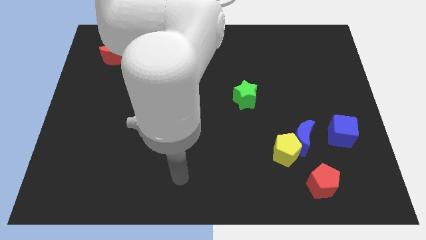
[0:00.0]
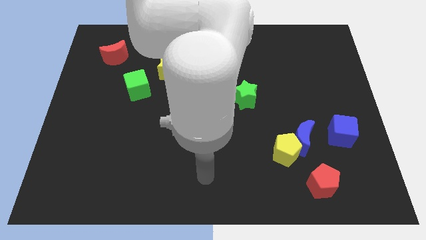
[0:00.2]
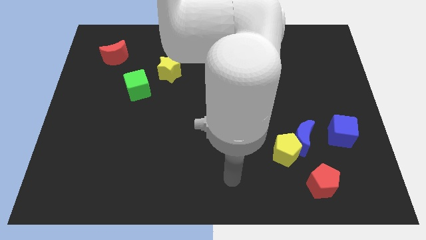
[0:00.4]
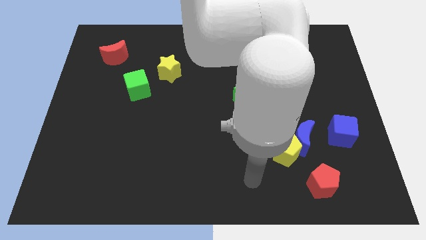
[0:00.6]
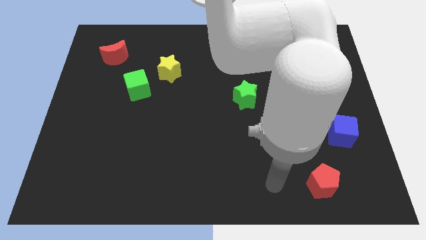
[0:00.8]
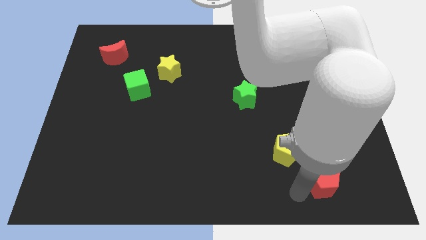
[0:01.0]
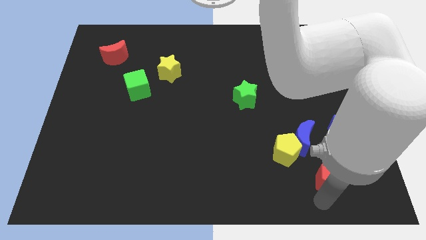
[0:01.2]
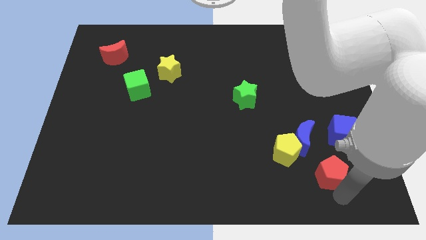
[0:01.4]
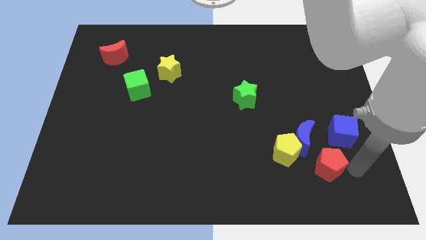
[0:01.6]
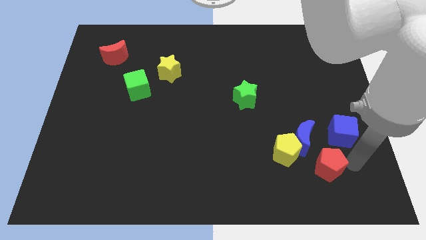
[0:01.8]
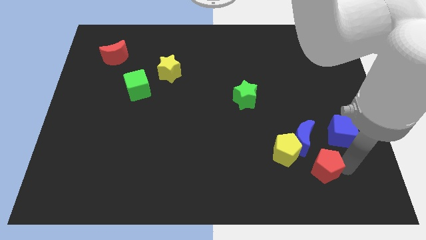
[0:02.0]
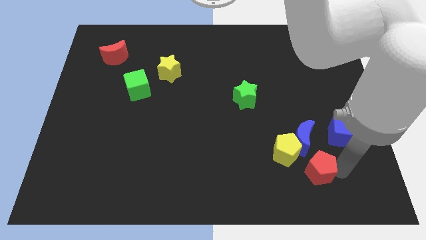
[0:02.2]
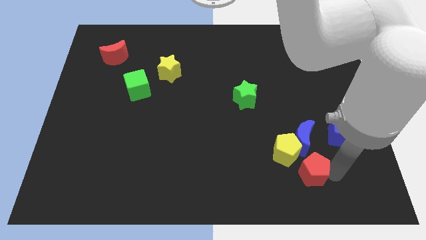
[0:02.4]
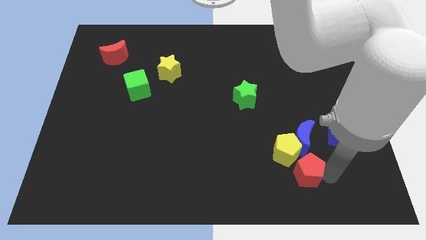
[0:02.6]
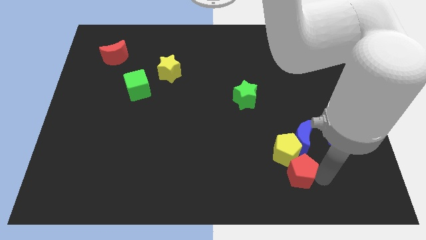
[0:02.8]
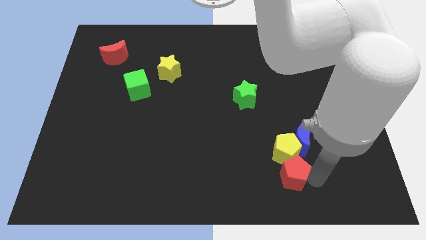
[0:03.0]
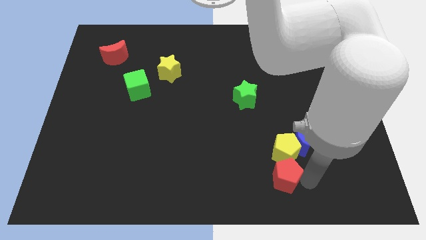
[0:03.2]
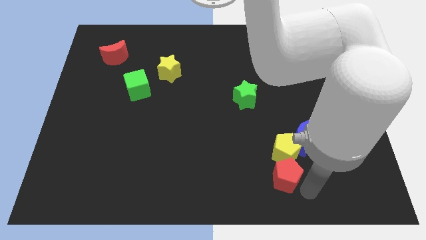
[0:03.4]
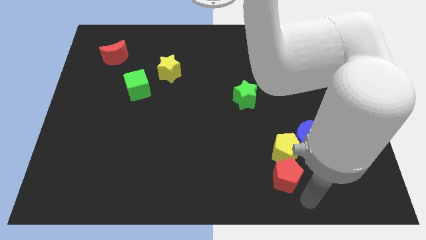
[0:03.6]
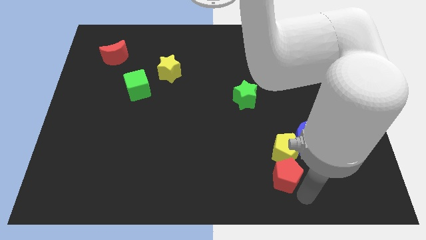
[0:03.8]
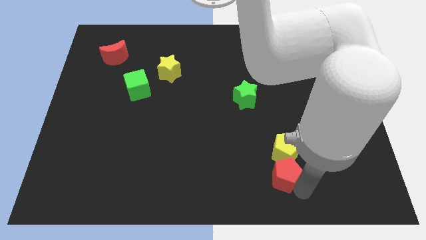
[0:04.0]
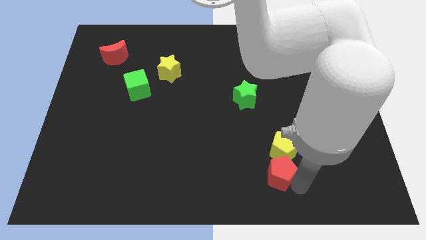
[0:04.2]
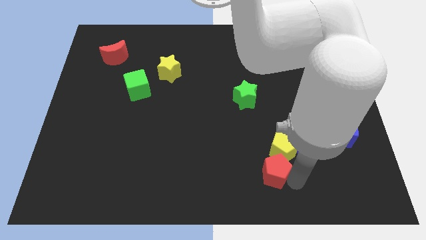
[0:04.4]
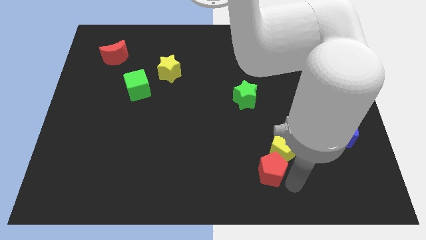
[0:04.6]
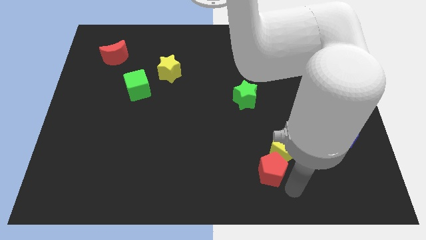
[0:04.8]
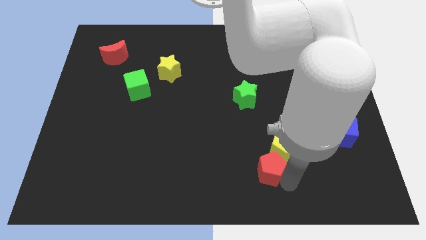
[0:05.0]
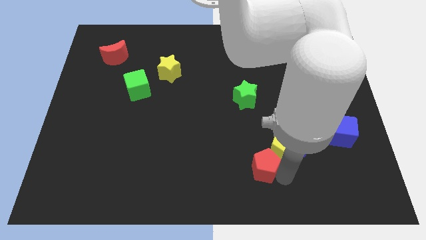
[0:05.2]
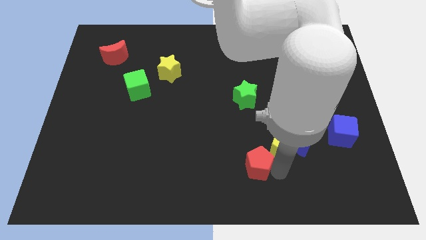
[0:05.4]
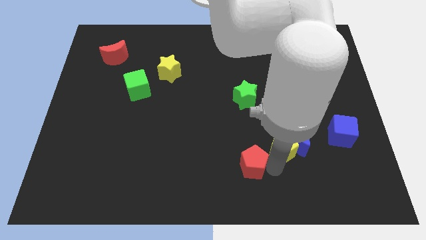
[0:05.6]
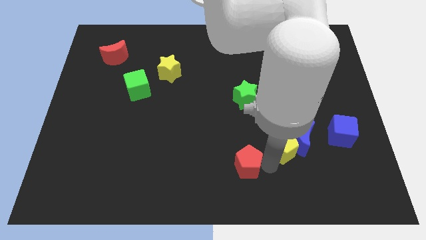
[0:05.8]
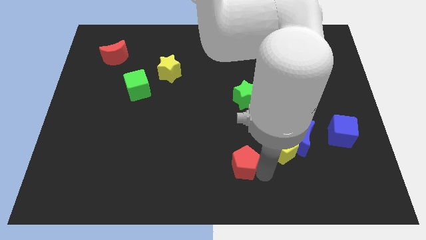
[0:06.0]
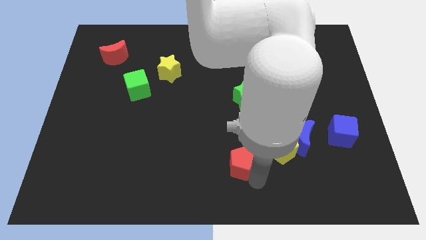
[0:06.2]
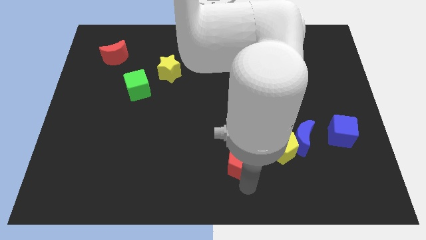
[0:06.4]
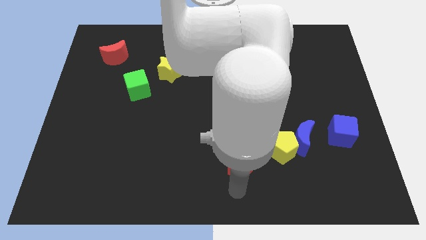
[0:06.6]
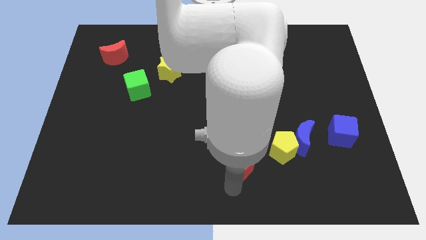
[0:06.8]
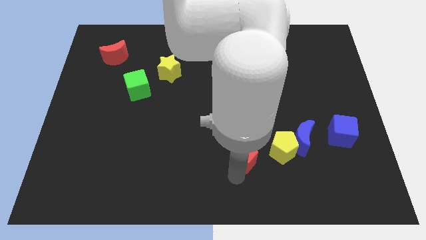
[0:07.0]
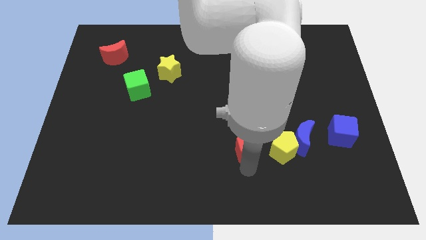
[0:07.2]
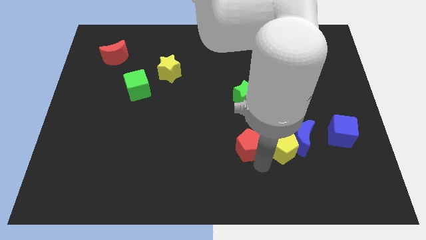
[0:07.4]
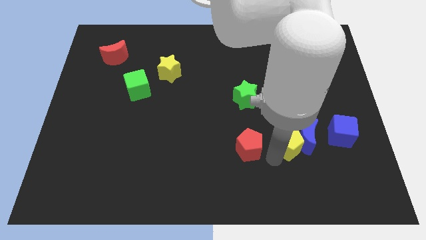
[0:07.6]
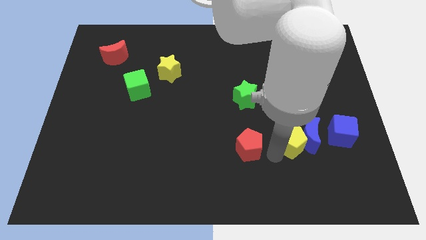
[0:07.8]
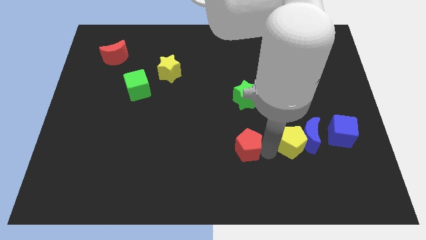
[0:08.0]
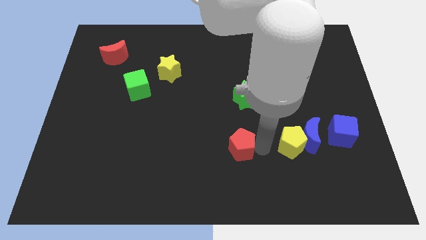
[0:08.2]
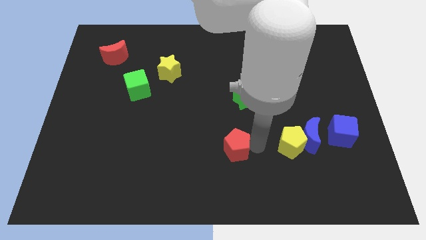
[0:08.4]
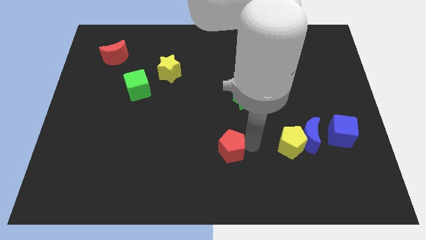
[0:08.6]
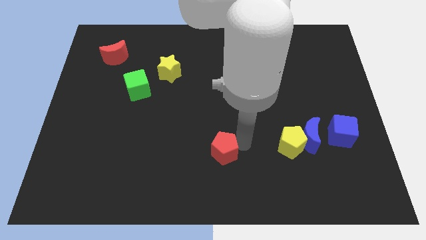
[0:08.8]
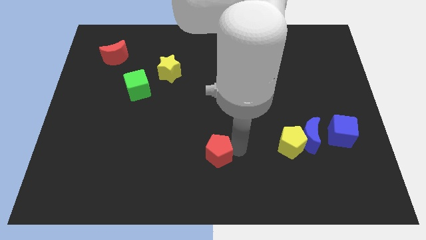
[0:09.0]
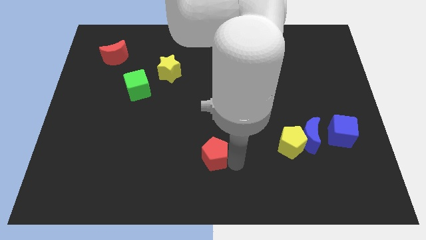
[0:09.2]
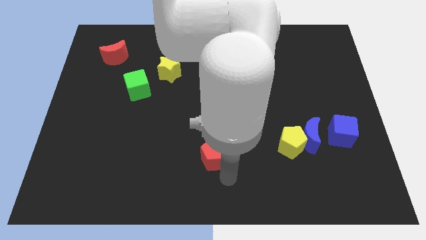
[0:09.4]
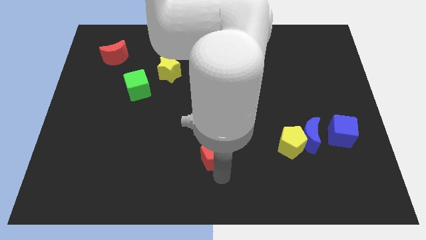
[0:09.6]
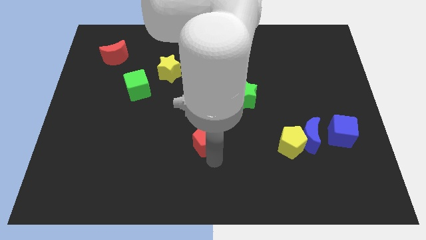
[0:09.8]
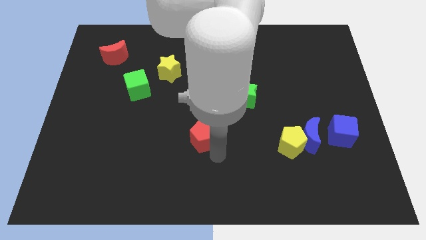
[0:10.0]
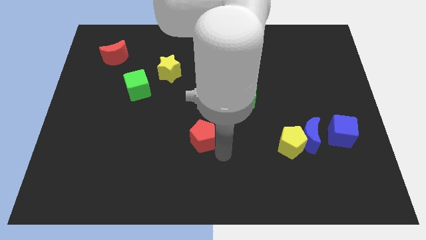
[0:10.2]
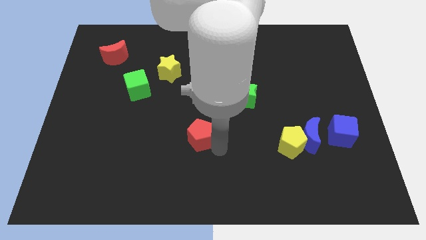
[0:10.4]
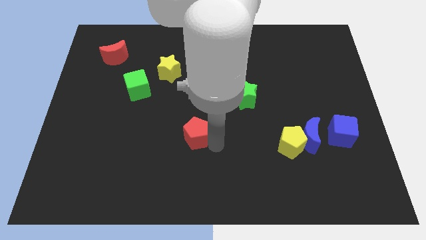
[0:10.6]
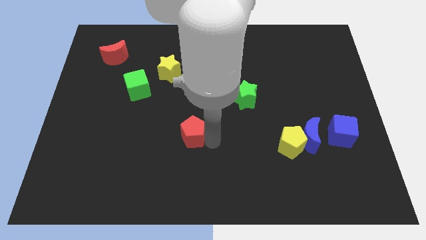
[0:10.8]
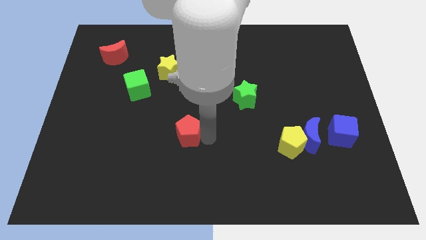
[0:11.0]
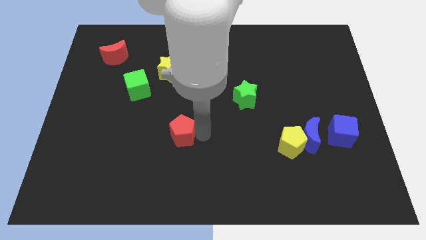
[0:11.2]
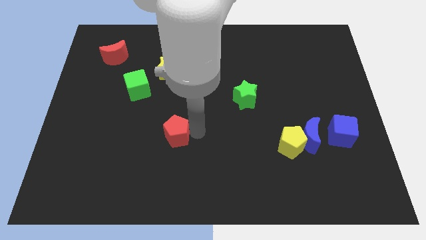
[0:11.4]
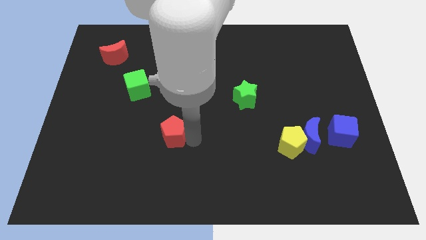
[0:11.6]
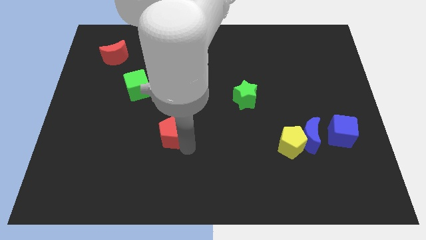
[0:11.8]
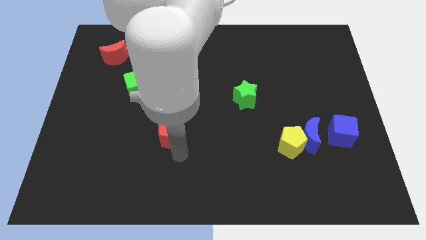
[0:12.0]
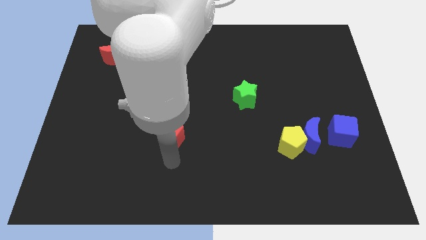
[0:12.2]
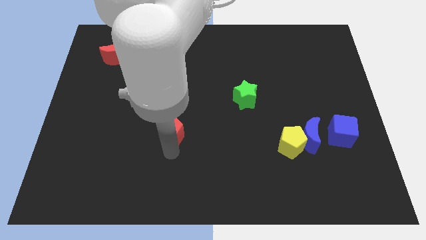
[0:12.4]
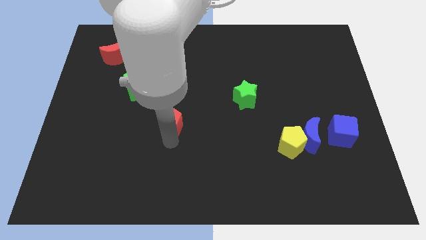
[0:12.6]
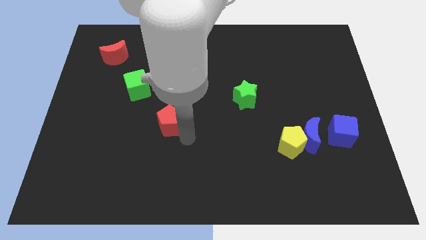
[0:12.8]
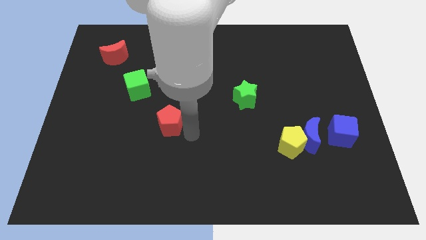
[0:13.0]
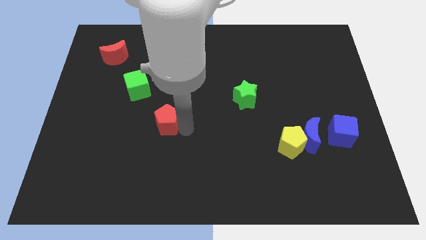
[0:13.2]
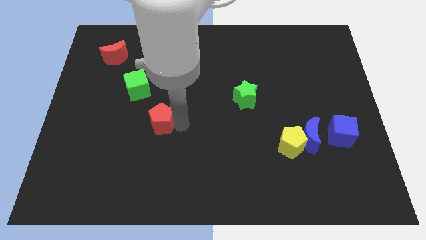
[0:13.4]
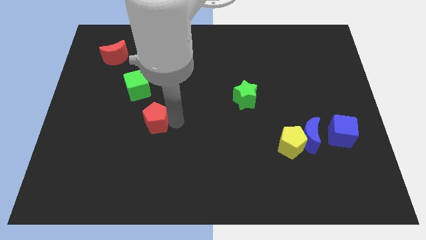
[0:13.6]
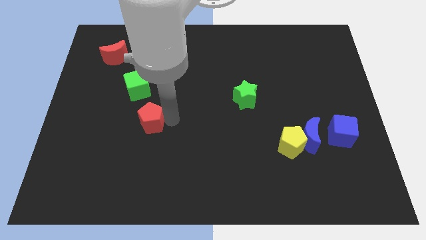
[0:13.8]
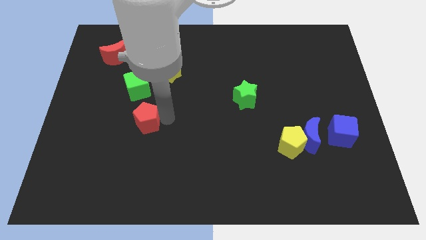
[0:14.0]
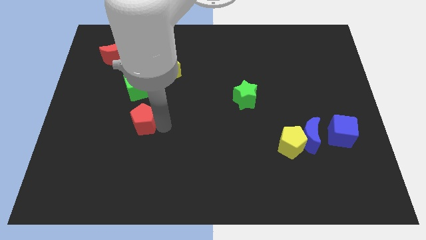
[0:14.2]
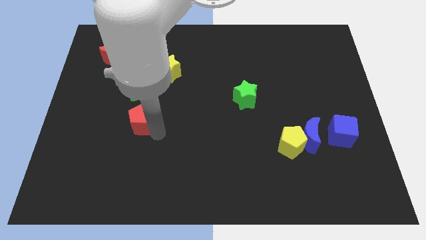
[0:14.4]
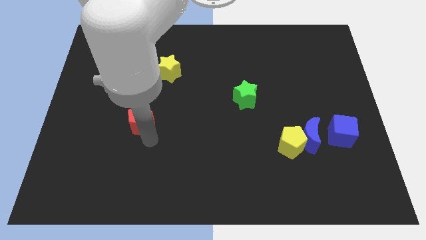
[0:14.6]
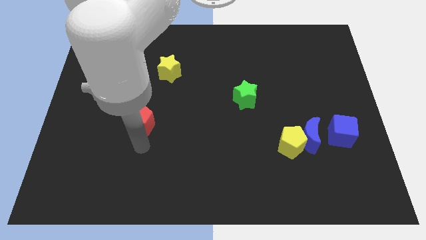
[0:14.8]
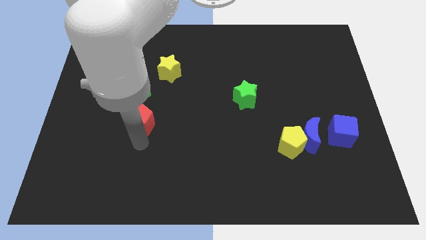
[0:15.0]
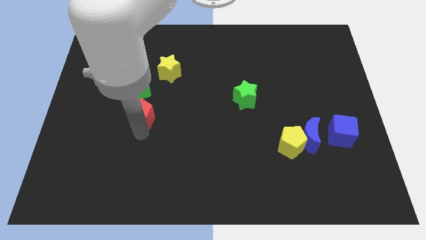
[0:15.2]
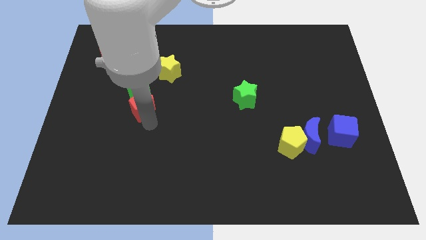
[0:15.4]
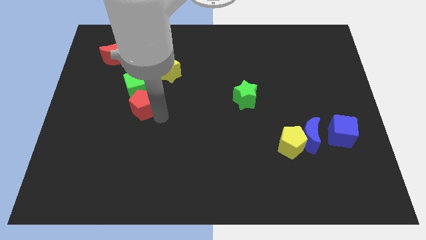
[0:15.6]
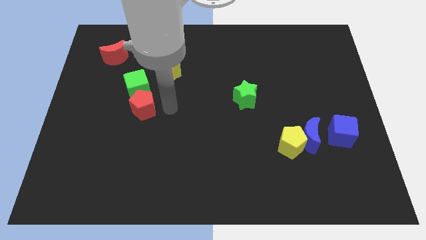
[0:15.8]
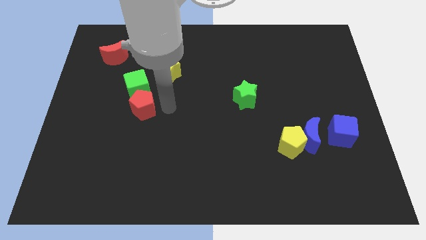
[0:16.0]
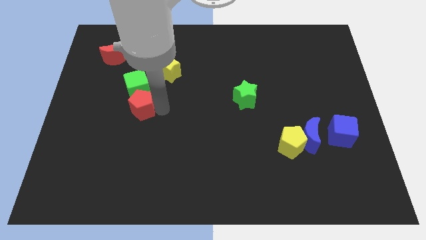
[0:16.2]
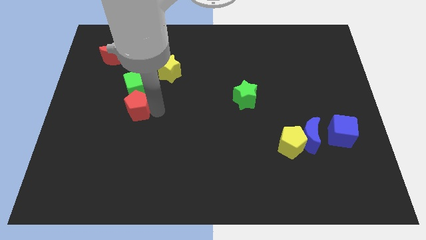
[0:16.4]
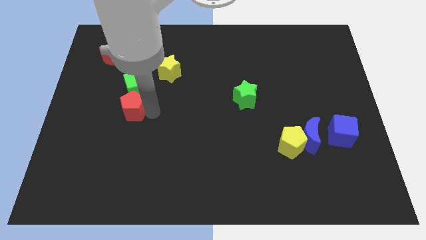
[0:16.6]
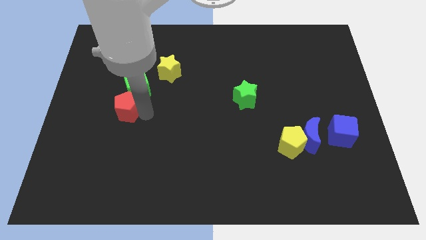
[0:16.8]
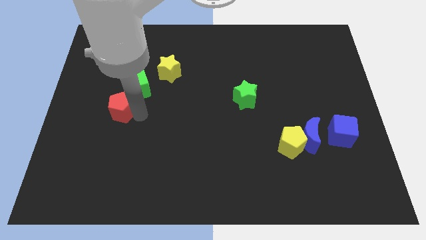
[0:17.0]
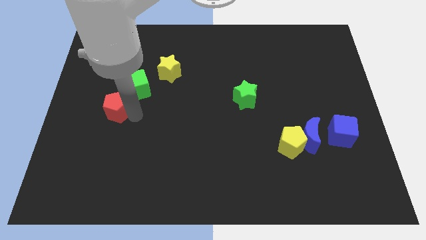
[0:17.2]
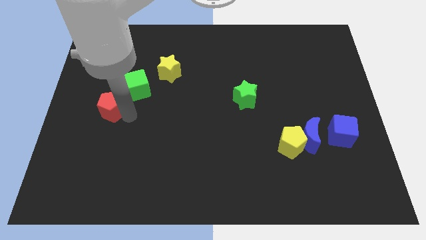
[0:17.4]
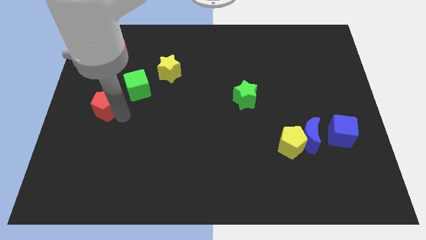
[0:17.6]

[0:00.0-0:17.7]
push the red pentagon to the left side of the board
